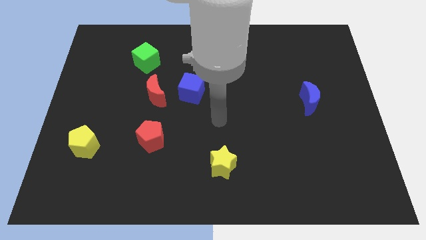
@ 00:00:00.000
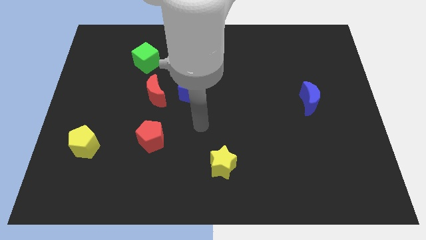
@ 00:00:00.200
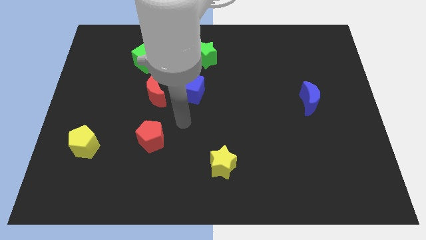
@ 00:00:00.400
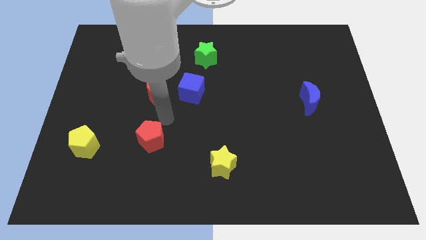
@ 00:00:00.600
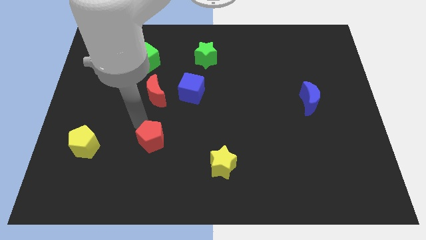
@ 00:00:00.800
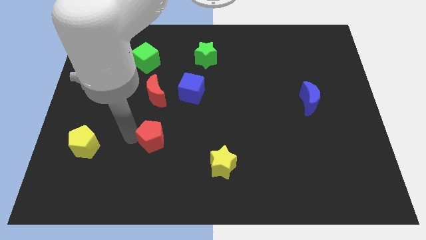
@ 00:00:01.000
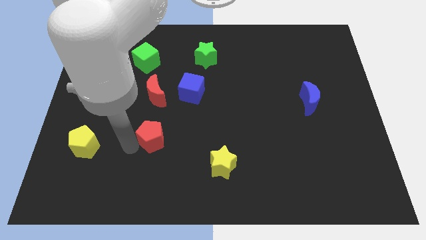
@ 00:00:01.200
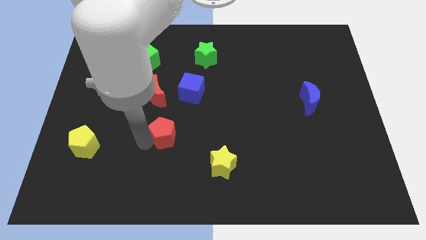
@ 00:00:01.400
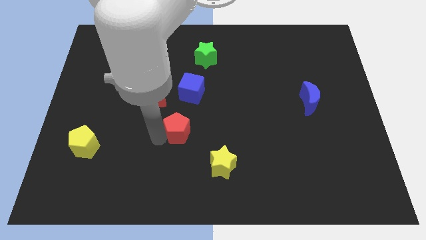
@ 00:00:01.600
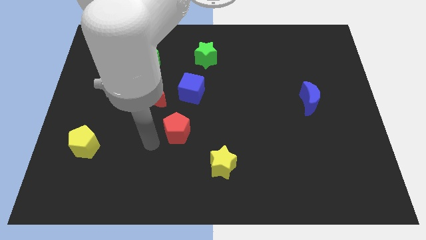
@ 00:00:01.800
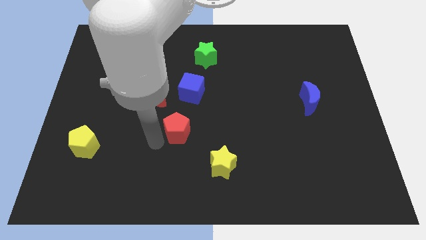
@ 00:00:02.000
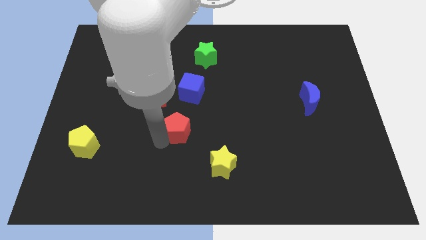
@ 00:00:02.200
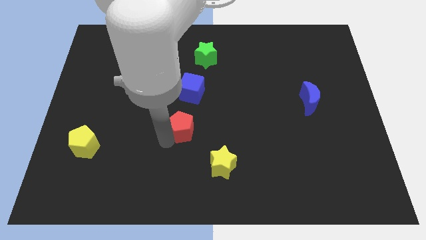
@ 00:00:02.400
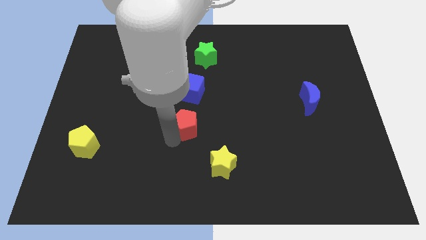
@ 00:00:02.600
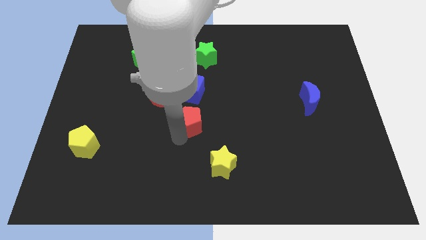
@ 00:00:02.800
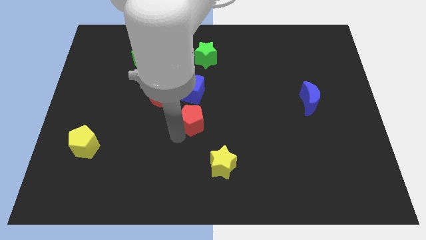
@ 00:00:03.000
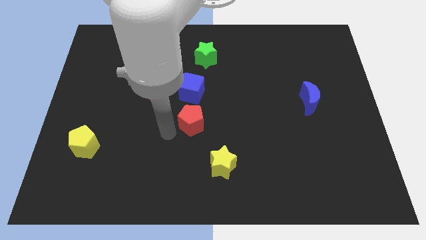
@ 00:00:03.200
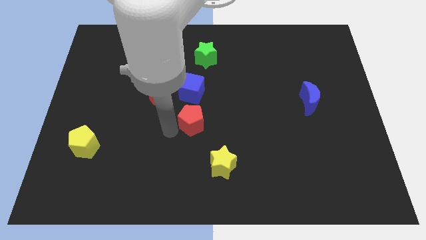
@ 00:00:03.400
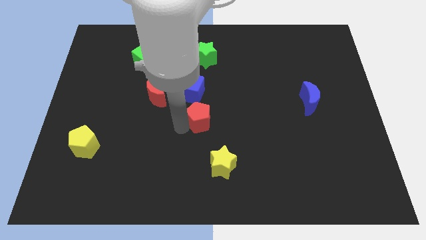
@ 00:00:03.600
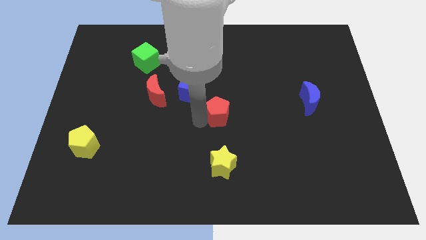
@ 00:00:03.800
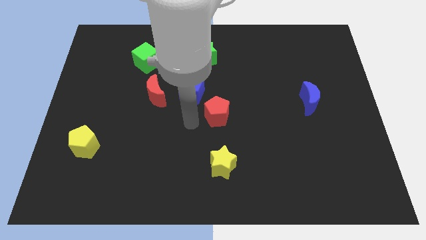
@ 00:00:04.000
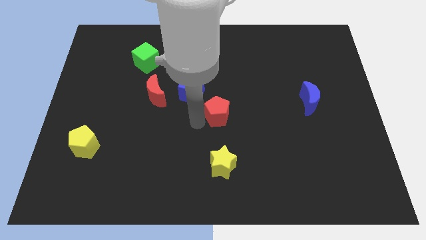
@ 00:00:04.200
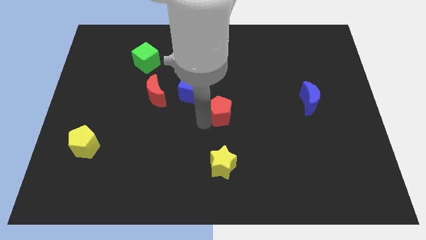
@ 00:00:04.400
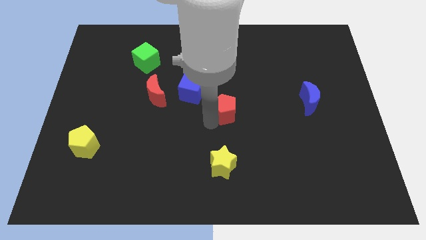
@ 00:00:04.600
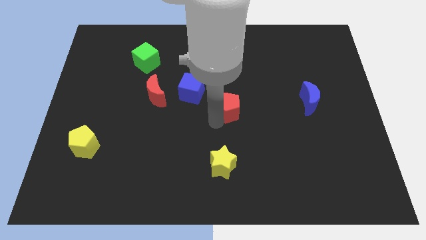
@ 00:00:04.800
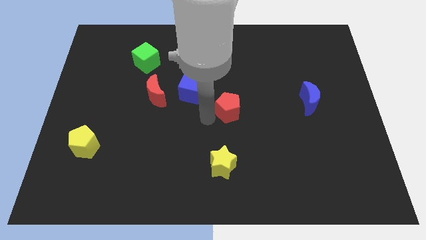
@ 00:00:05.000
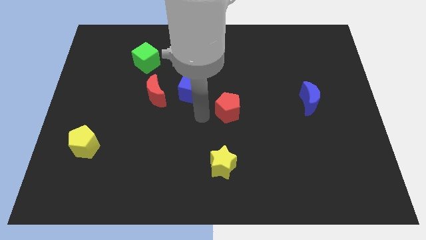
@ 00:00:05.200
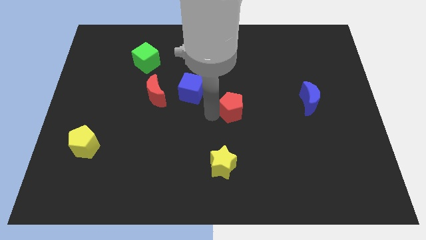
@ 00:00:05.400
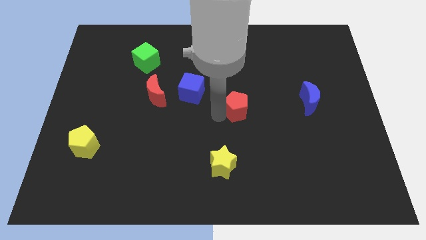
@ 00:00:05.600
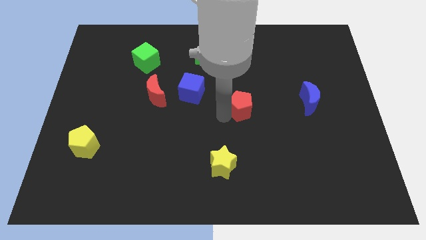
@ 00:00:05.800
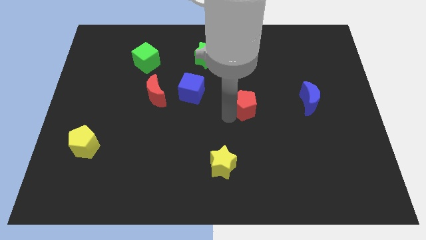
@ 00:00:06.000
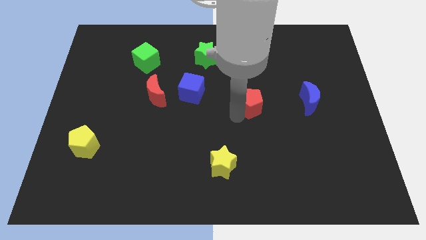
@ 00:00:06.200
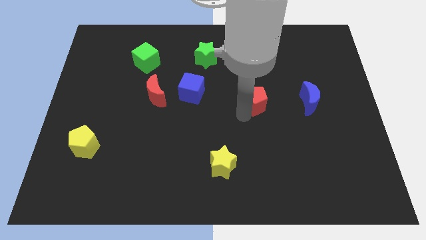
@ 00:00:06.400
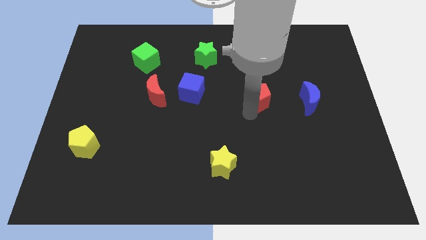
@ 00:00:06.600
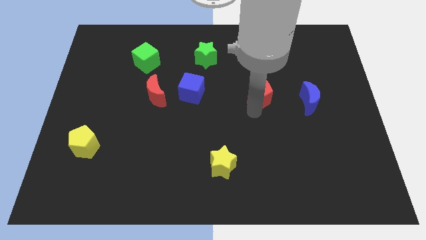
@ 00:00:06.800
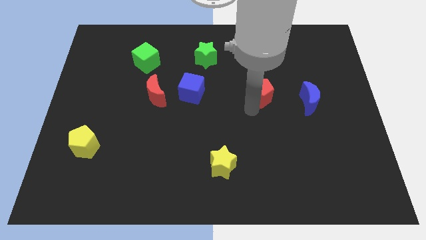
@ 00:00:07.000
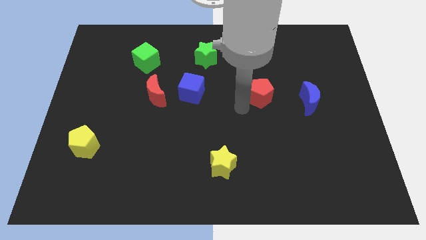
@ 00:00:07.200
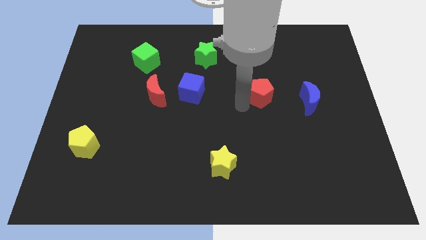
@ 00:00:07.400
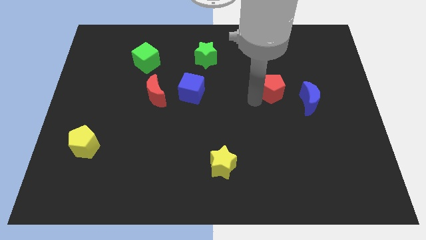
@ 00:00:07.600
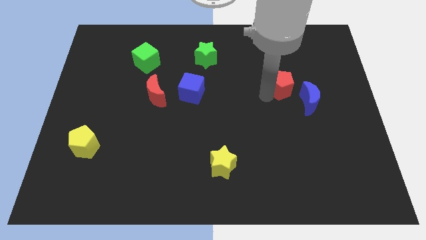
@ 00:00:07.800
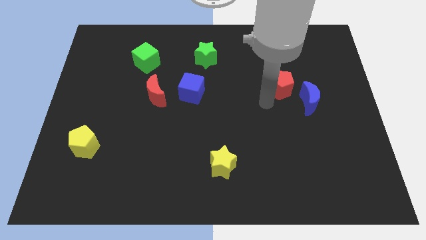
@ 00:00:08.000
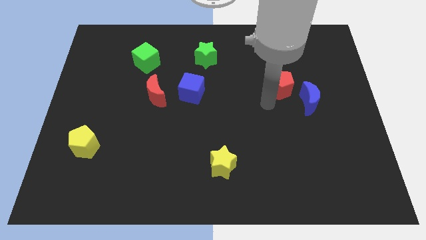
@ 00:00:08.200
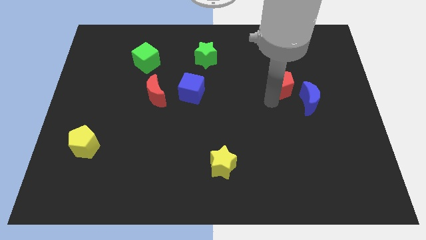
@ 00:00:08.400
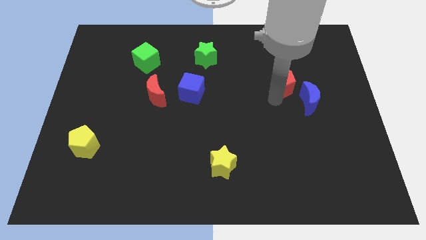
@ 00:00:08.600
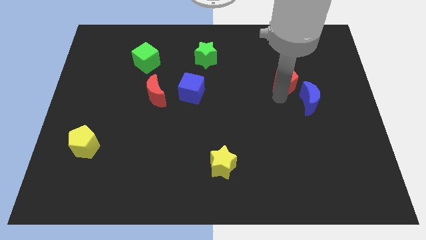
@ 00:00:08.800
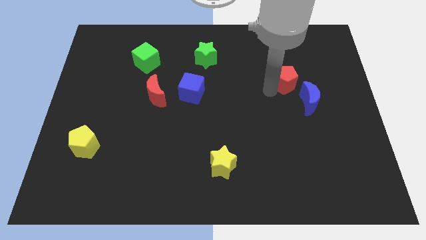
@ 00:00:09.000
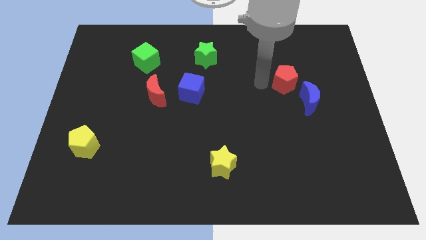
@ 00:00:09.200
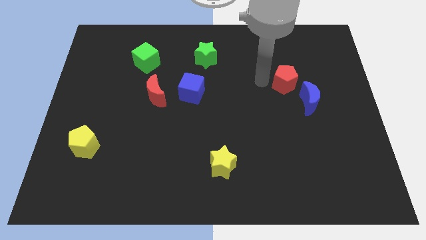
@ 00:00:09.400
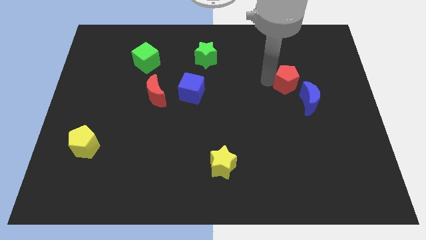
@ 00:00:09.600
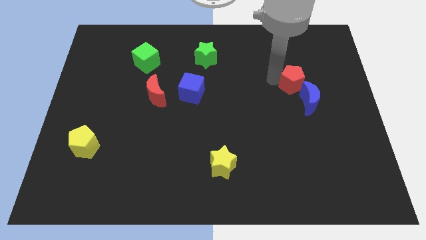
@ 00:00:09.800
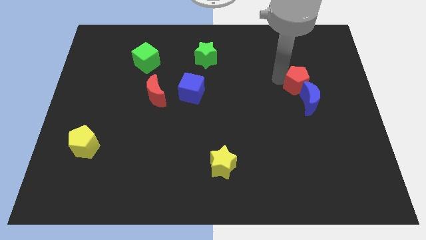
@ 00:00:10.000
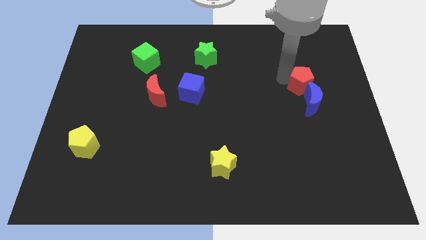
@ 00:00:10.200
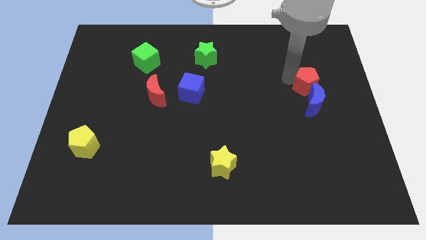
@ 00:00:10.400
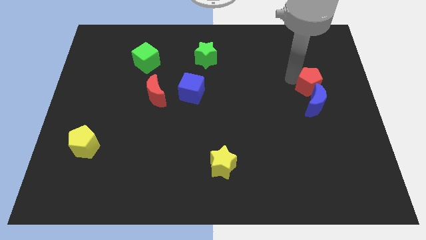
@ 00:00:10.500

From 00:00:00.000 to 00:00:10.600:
move the red pentagon to the top right side of the blue moon
